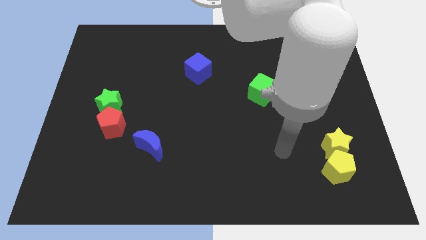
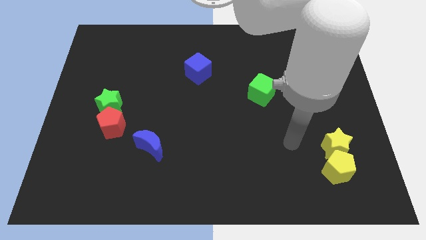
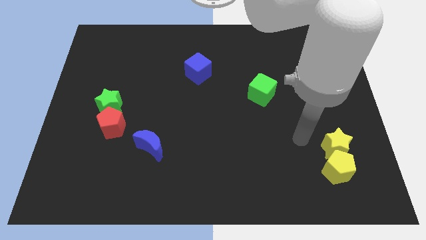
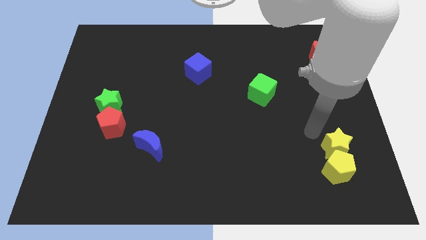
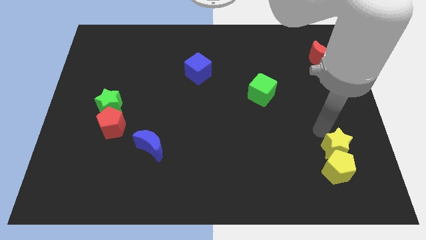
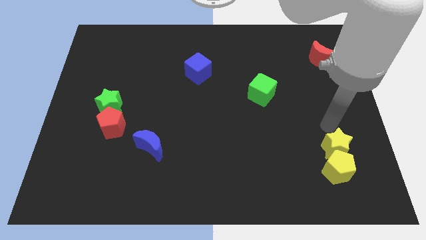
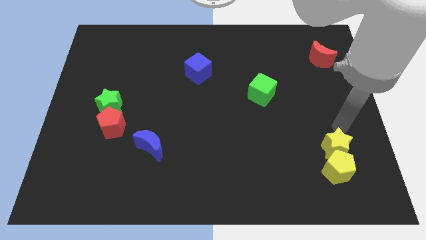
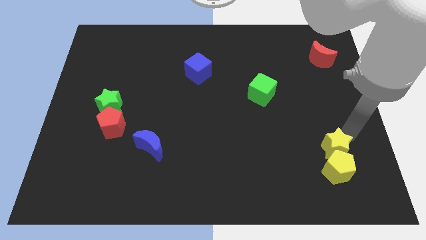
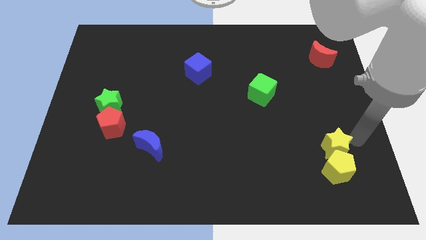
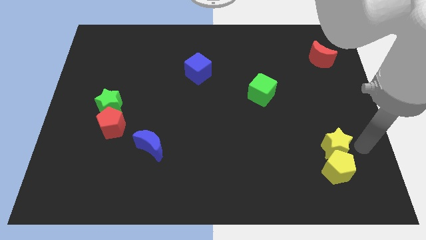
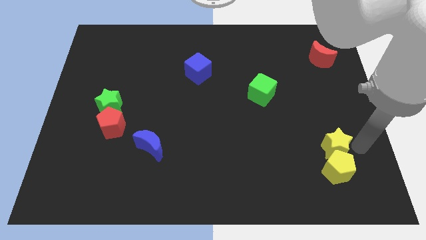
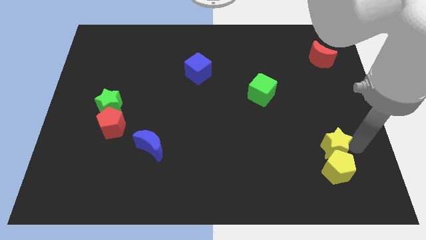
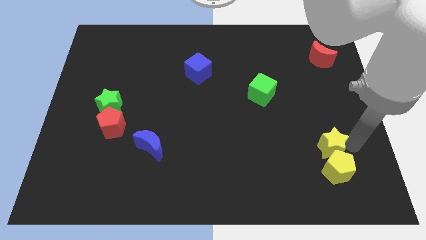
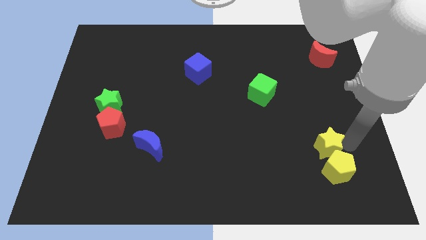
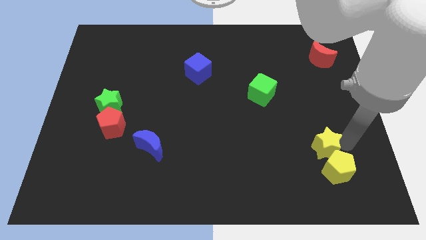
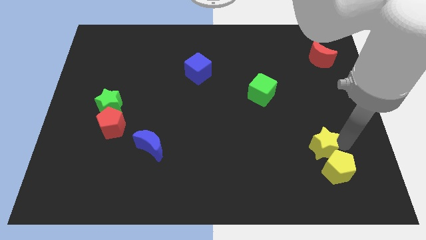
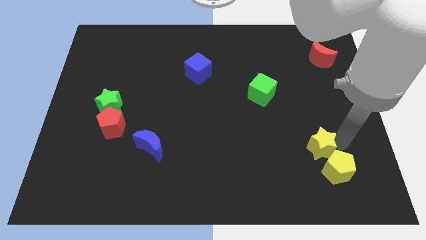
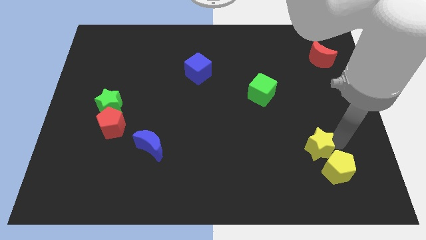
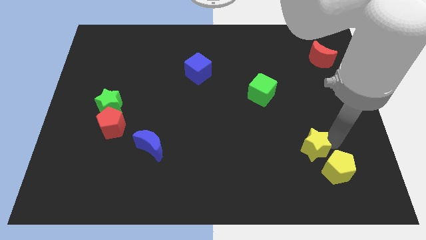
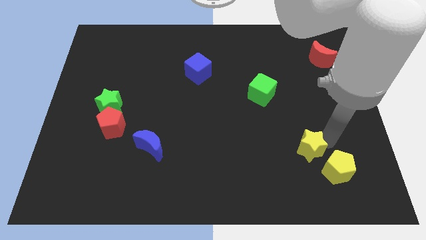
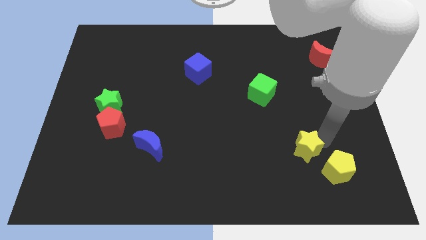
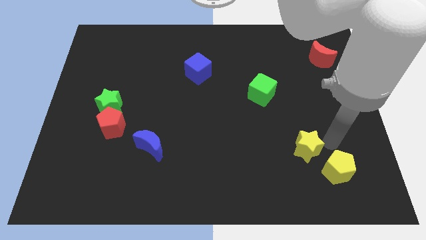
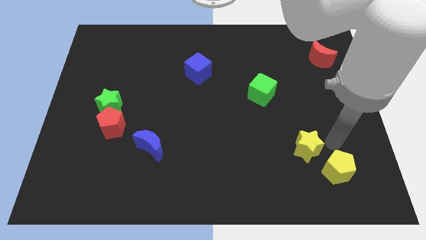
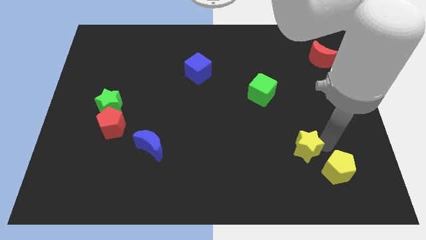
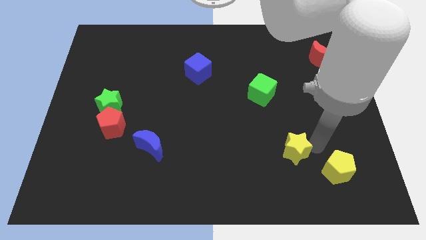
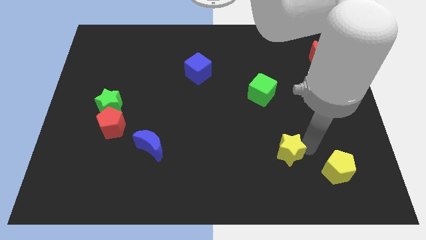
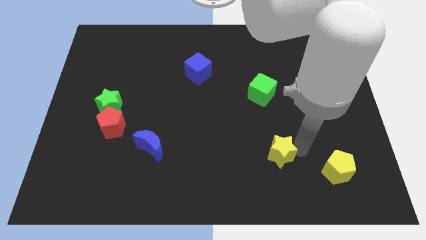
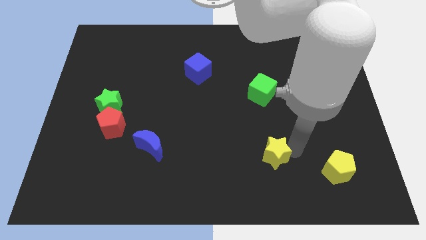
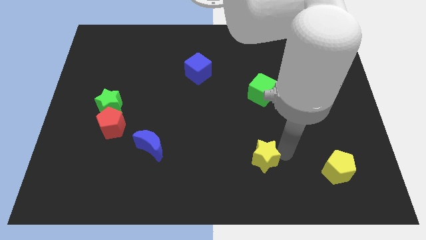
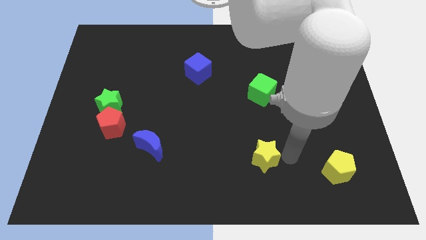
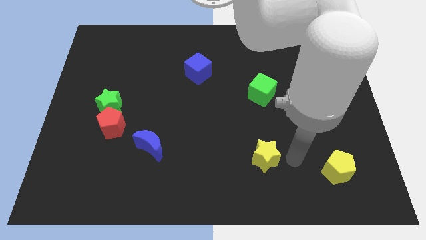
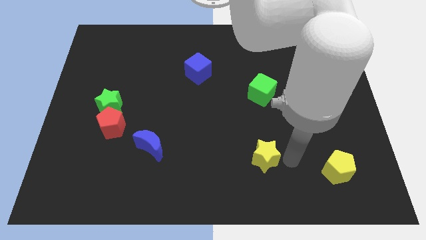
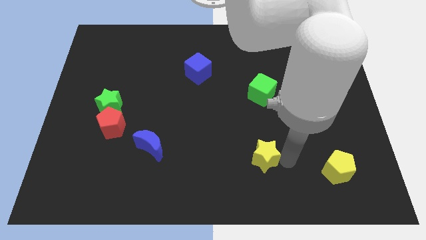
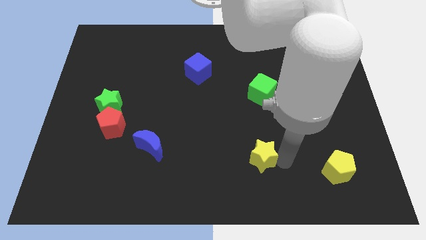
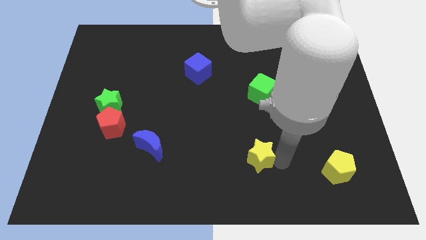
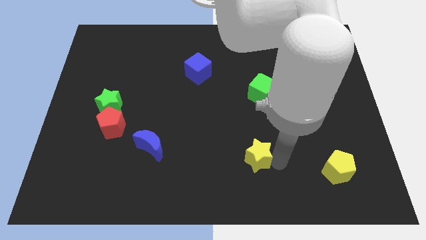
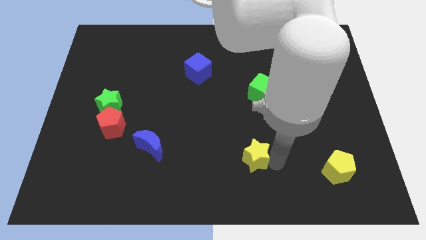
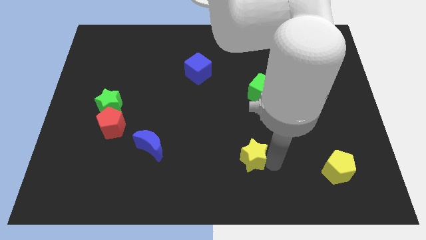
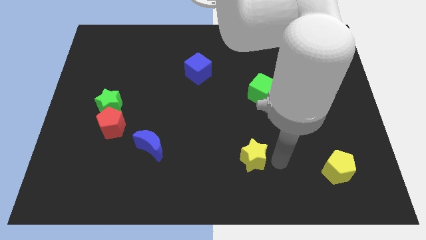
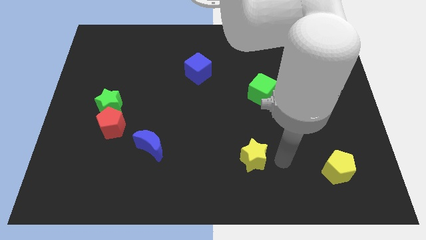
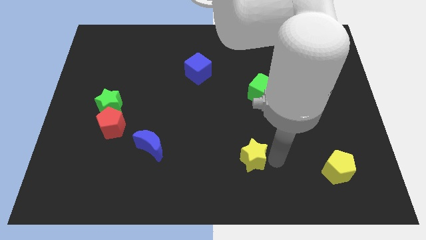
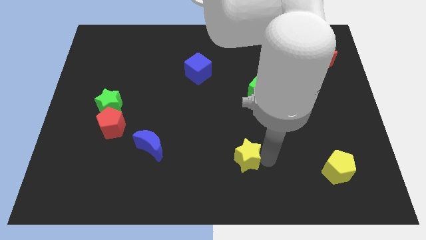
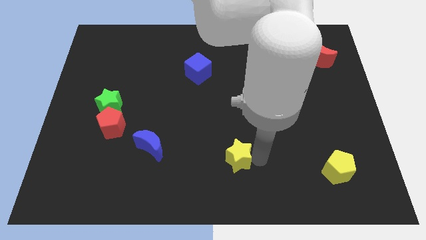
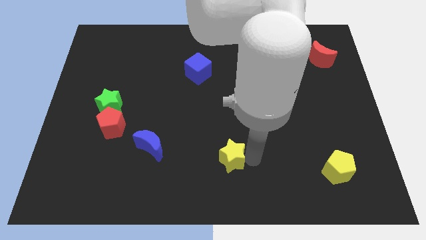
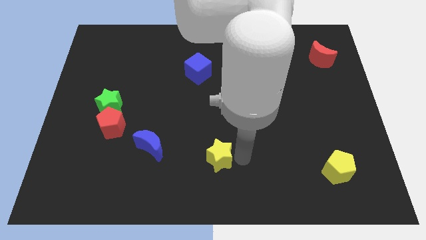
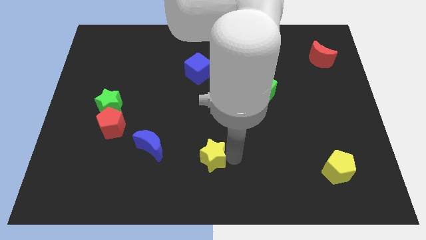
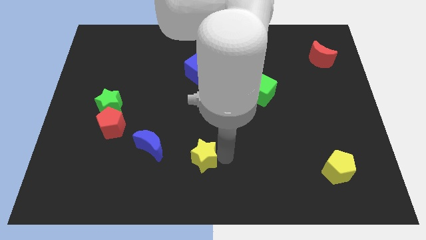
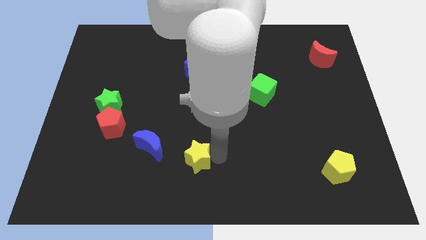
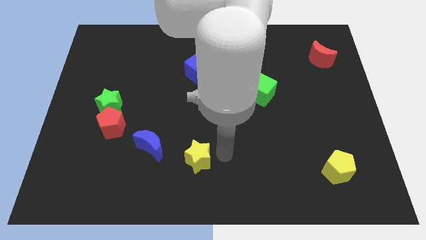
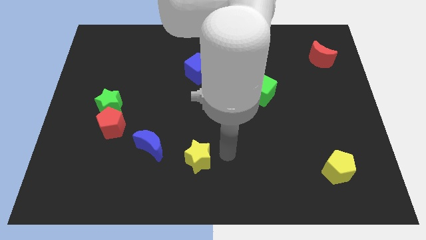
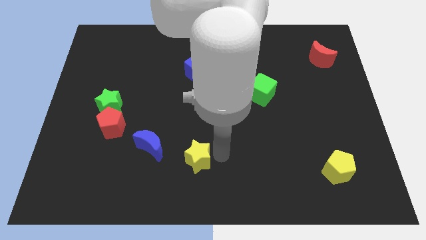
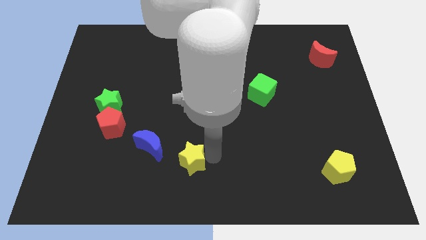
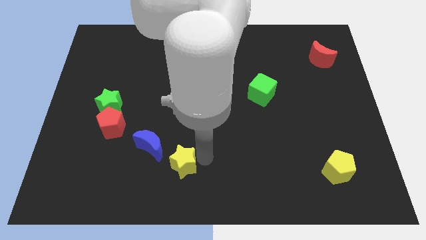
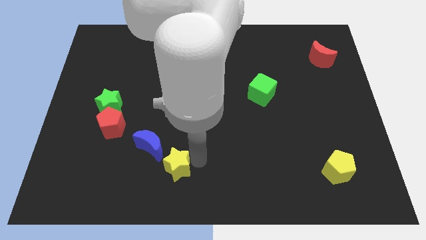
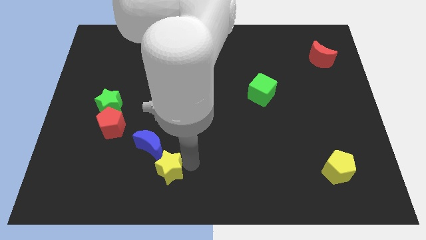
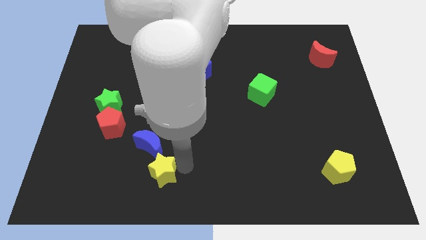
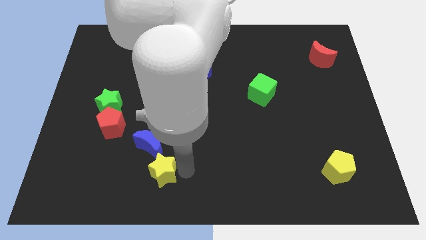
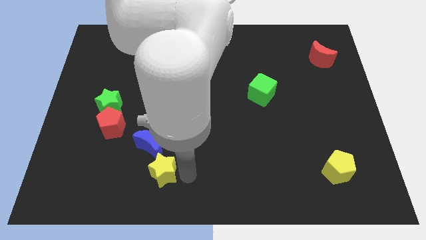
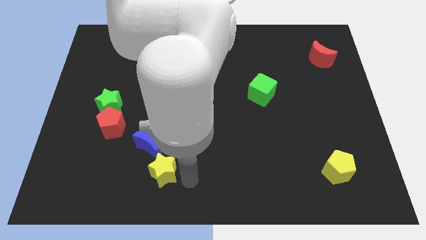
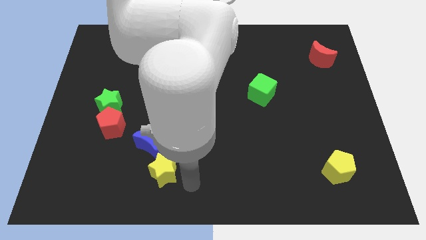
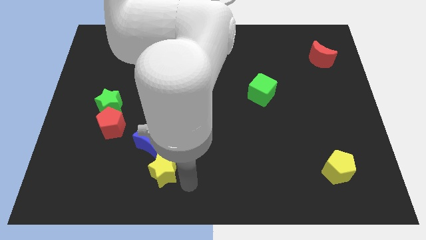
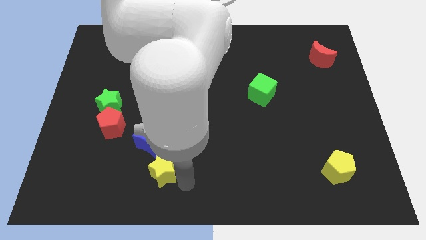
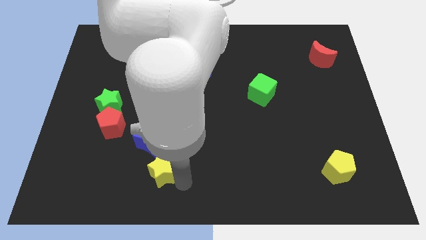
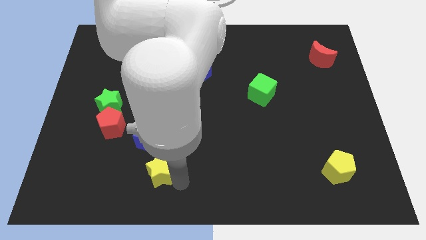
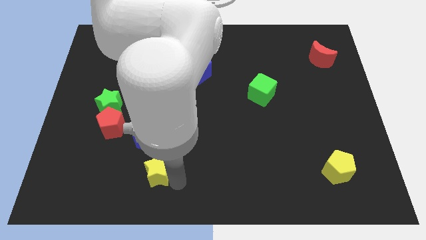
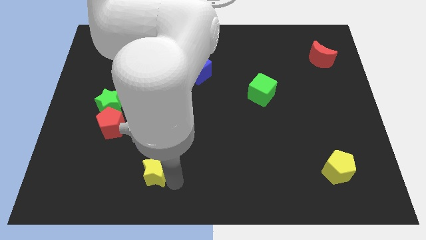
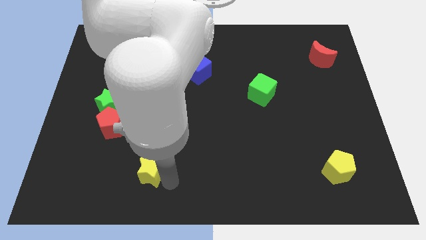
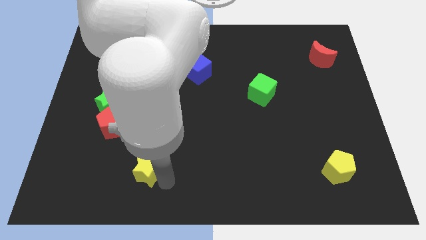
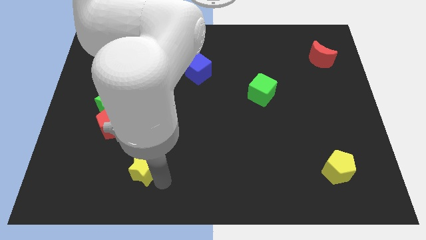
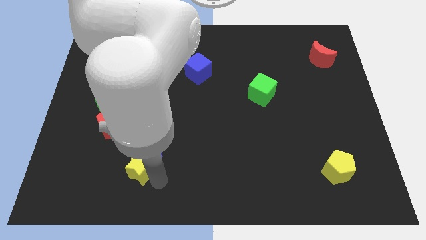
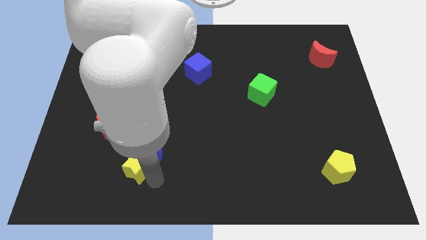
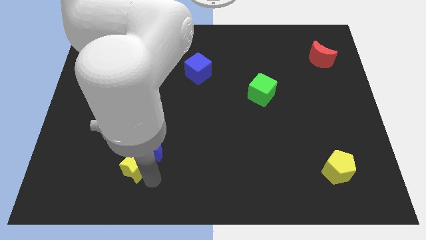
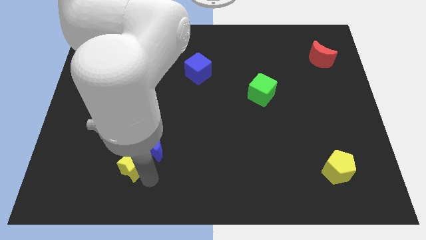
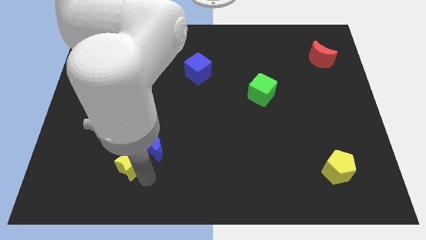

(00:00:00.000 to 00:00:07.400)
put the yellow star just left of the blue moon

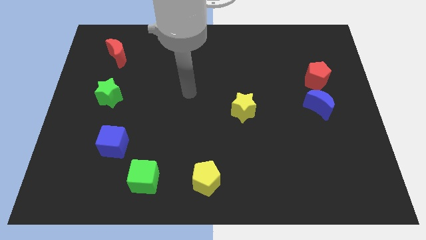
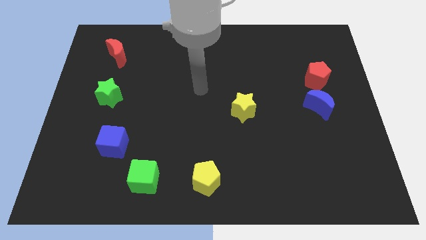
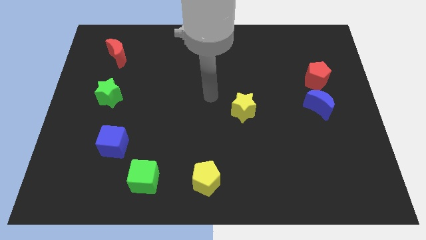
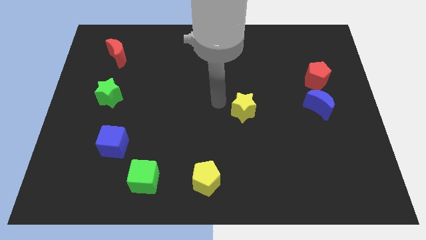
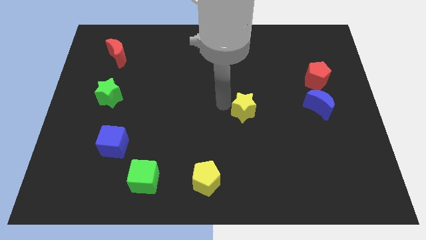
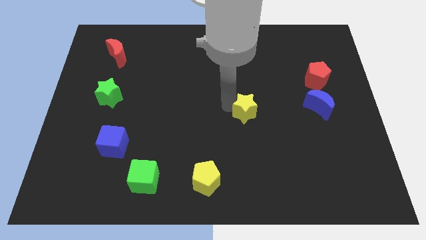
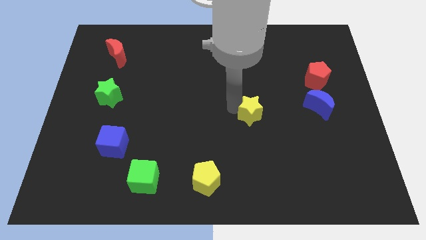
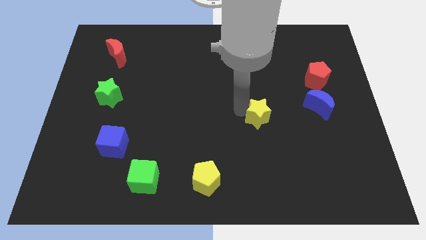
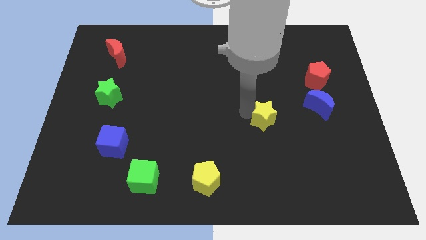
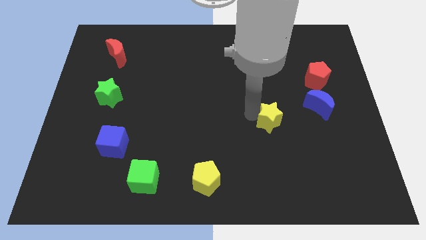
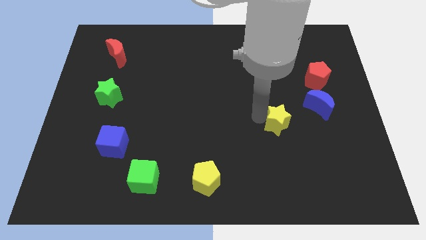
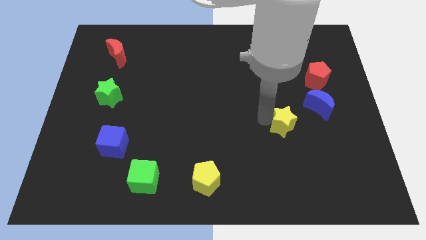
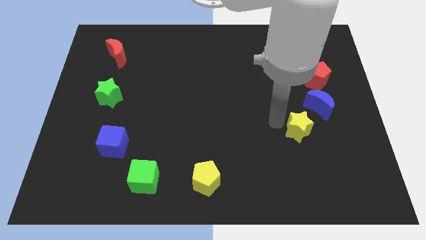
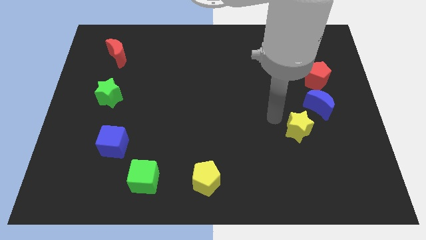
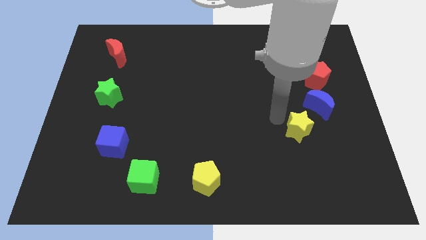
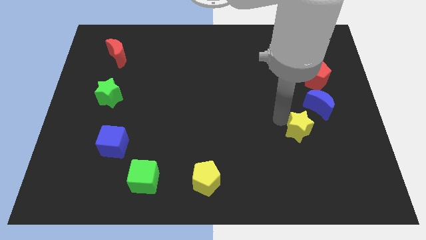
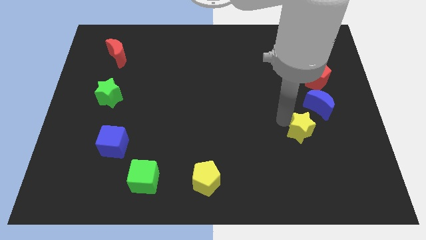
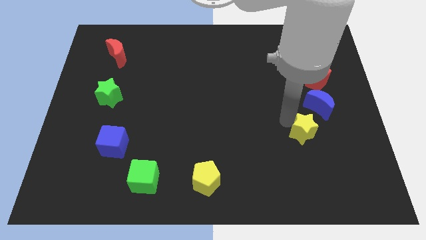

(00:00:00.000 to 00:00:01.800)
push the yellow star to the bottom of the blue moon
